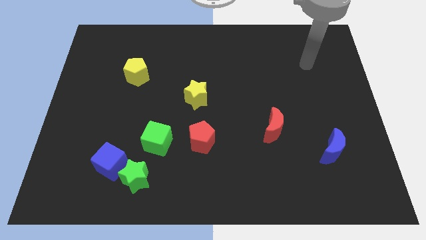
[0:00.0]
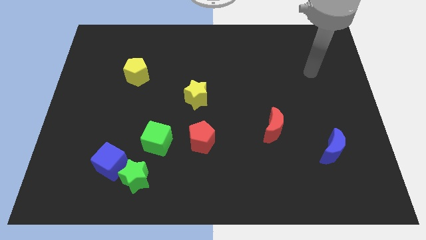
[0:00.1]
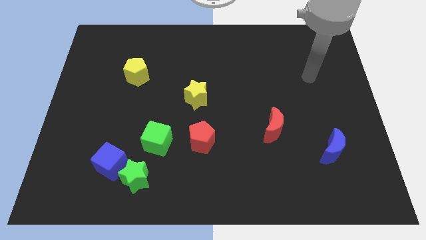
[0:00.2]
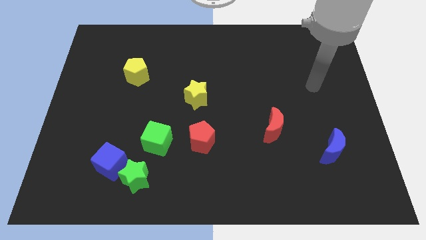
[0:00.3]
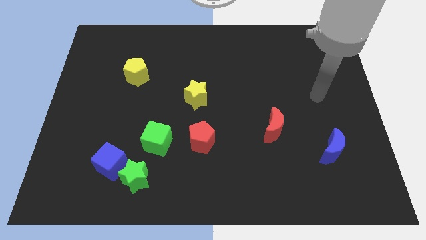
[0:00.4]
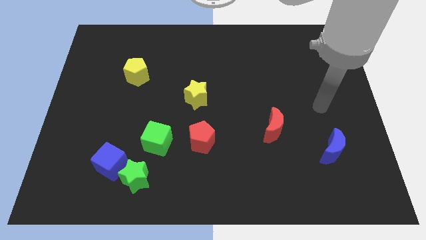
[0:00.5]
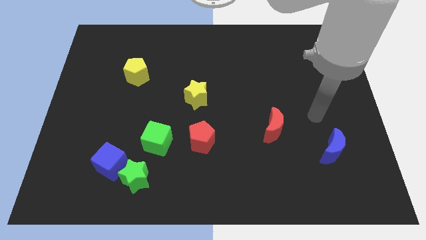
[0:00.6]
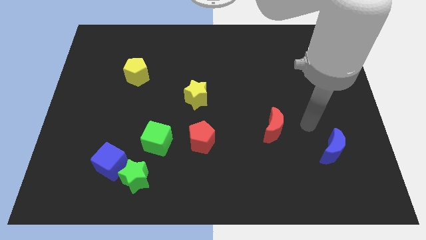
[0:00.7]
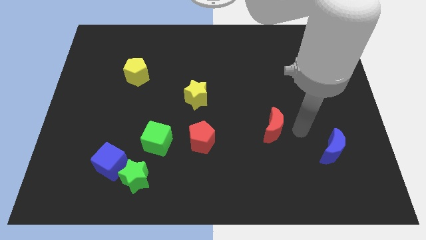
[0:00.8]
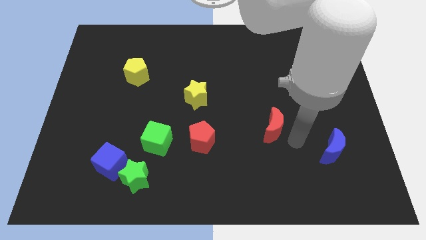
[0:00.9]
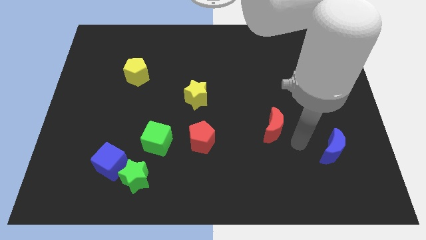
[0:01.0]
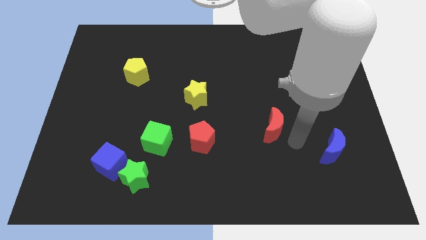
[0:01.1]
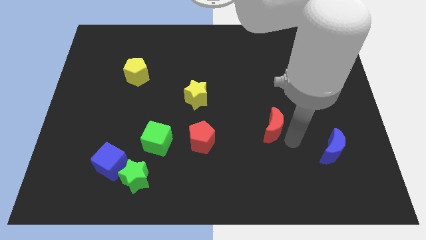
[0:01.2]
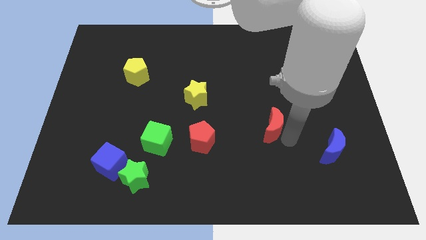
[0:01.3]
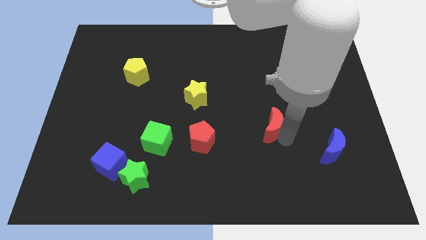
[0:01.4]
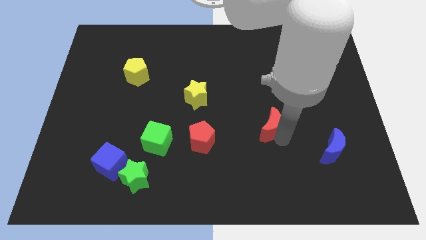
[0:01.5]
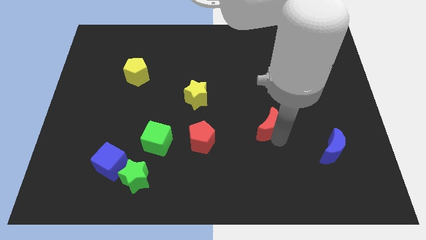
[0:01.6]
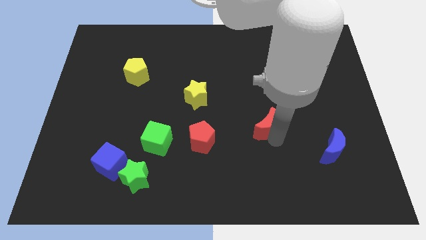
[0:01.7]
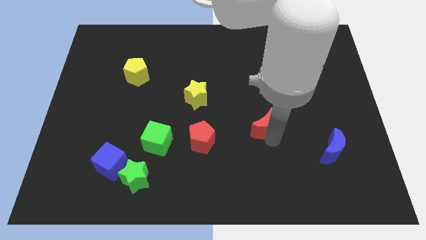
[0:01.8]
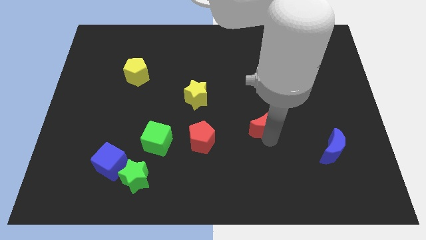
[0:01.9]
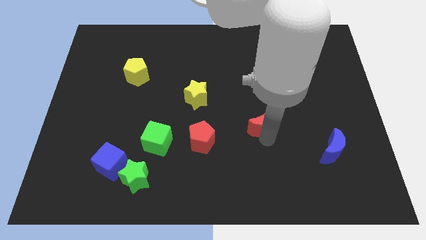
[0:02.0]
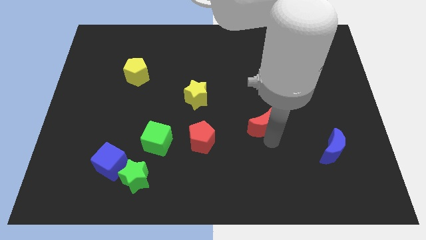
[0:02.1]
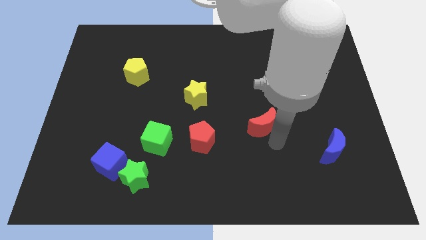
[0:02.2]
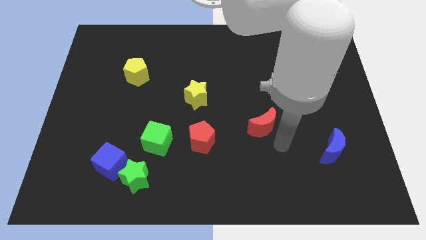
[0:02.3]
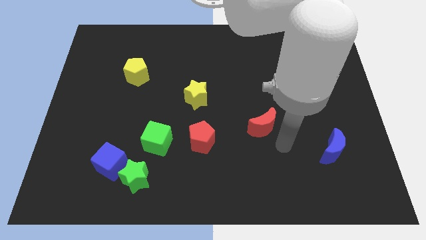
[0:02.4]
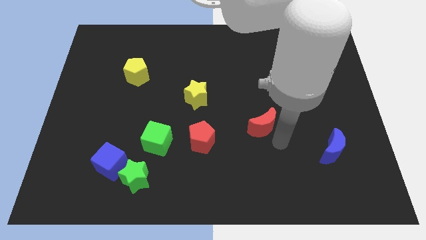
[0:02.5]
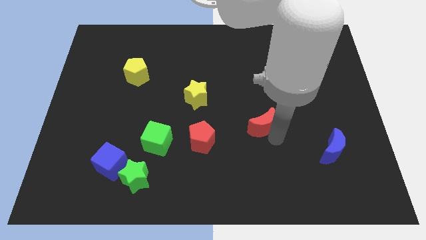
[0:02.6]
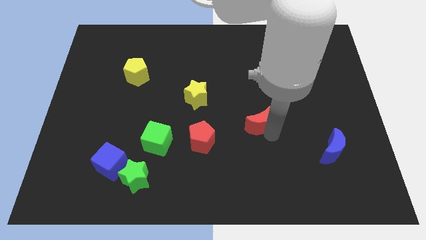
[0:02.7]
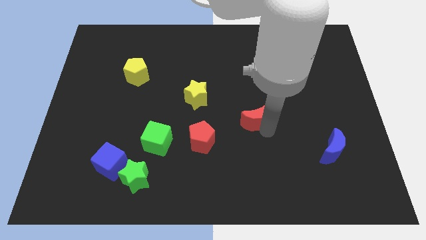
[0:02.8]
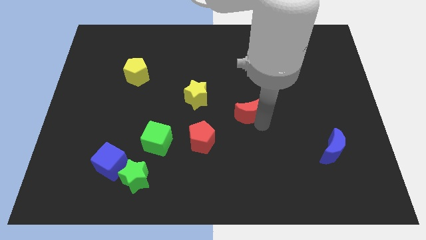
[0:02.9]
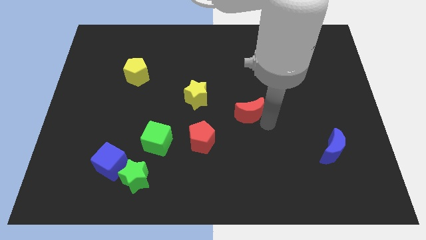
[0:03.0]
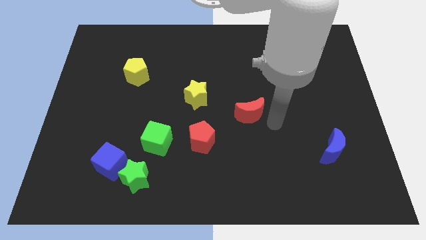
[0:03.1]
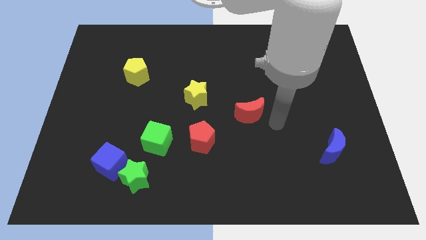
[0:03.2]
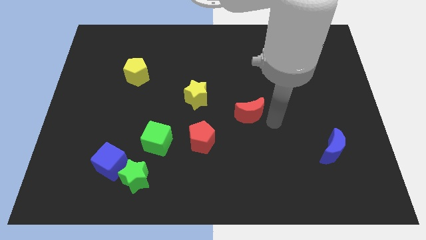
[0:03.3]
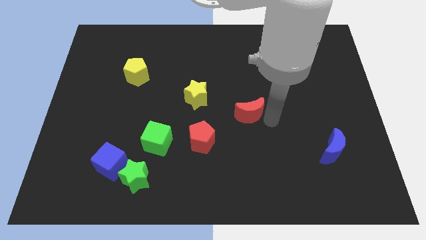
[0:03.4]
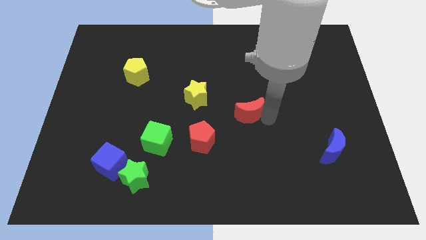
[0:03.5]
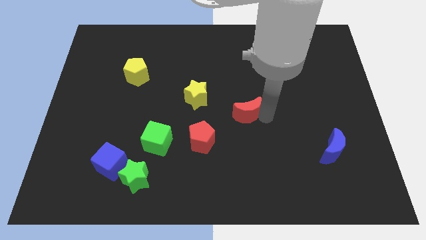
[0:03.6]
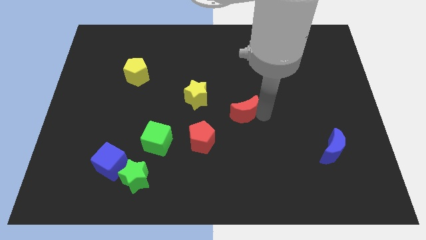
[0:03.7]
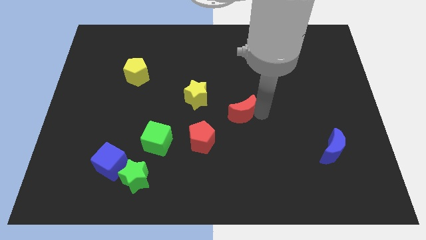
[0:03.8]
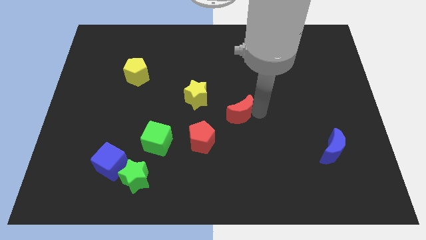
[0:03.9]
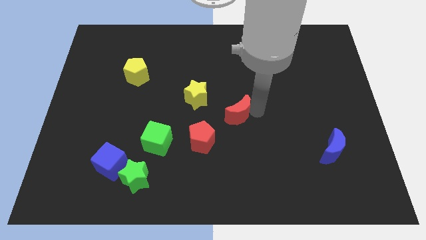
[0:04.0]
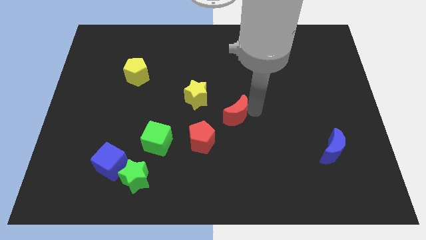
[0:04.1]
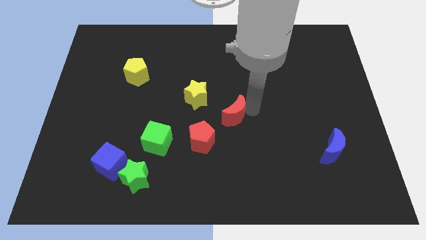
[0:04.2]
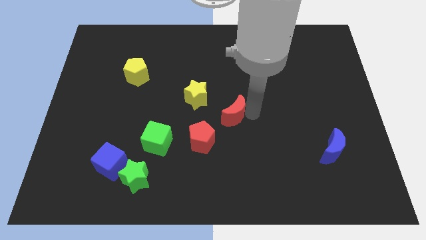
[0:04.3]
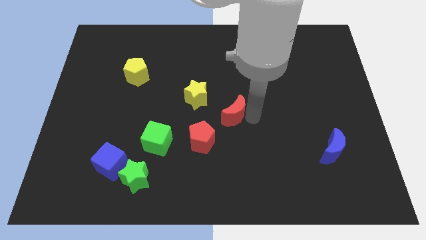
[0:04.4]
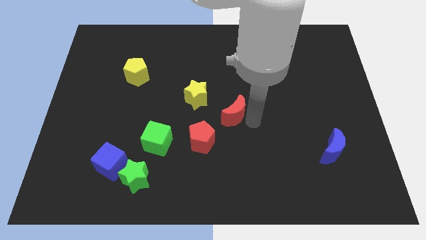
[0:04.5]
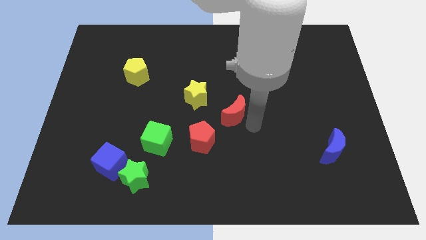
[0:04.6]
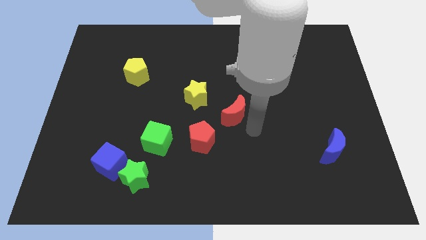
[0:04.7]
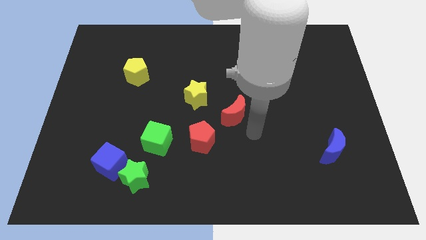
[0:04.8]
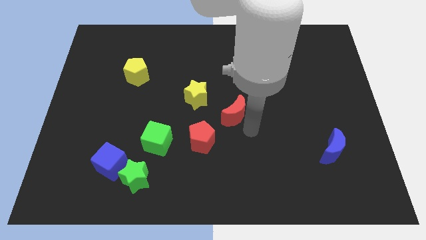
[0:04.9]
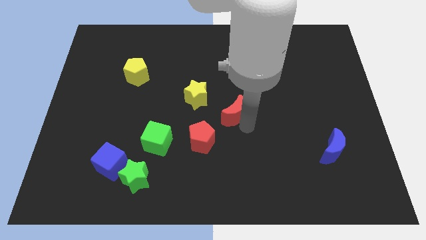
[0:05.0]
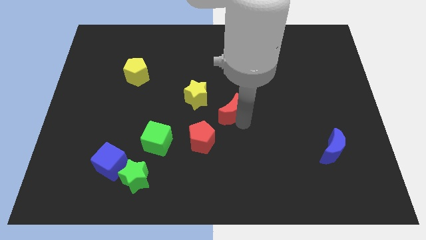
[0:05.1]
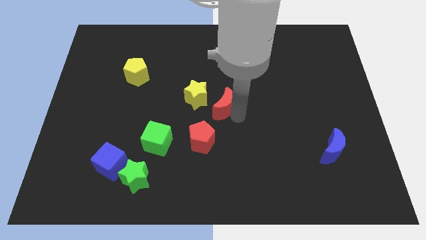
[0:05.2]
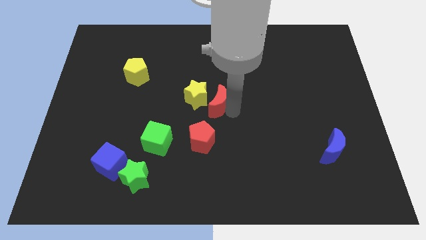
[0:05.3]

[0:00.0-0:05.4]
put the red moon to the yellow star

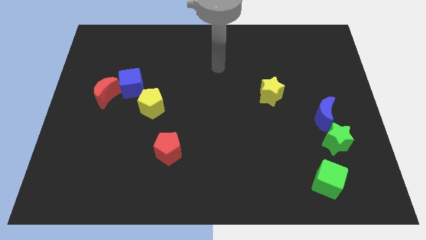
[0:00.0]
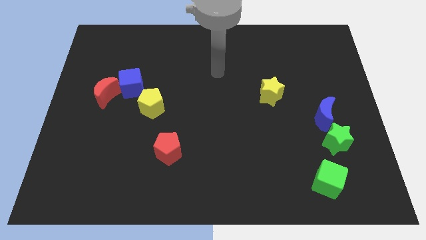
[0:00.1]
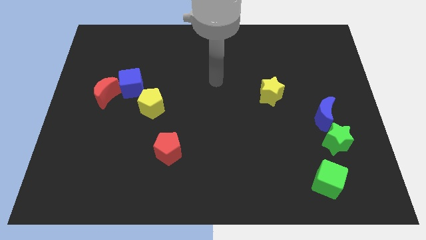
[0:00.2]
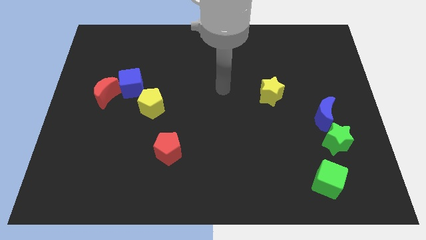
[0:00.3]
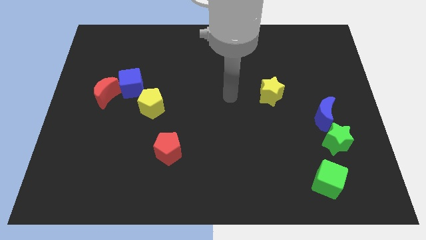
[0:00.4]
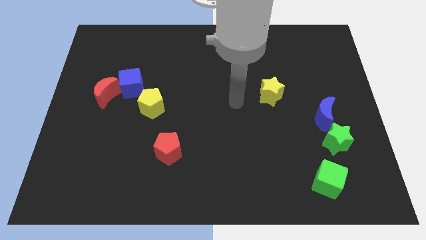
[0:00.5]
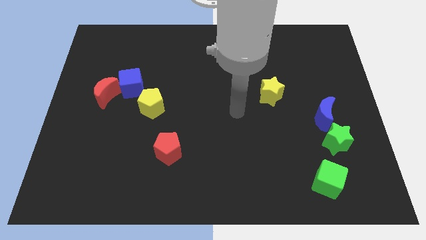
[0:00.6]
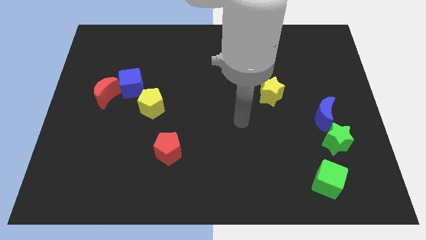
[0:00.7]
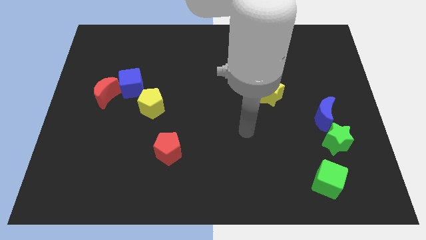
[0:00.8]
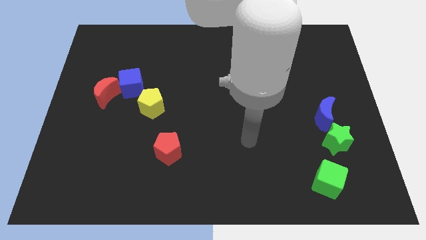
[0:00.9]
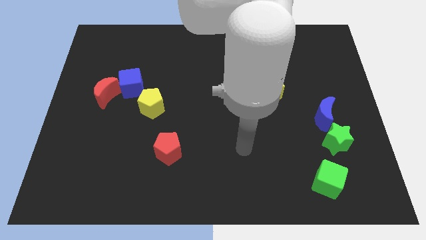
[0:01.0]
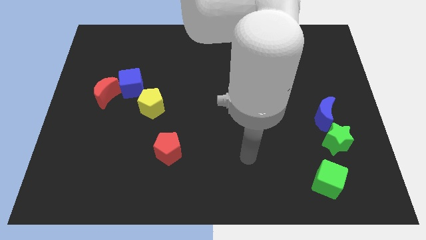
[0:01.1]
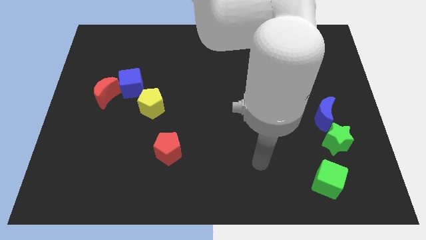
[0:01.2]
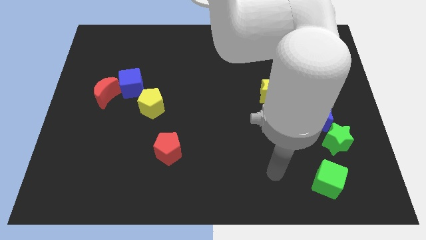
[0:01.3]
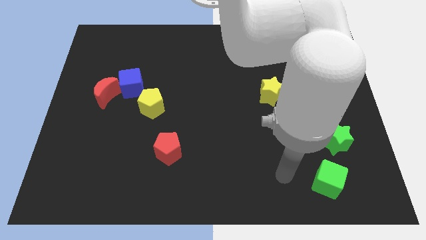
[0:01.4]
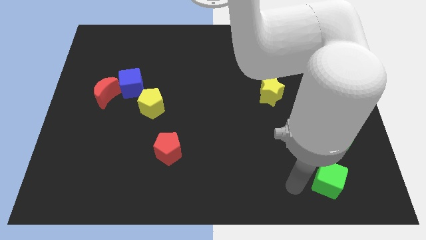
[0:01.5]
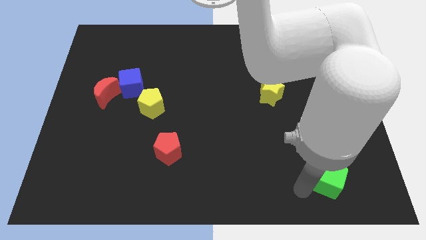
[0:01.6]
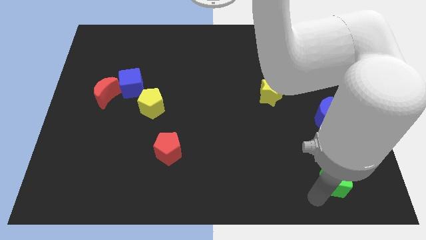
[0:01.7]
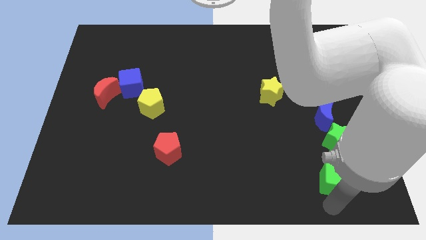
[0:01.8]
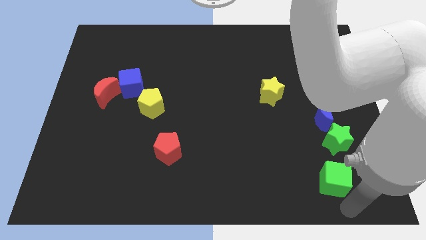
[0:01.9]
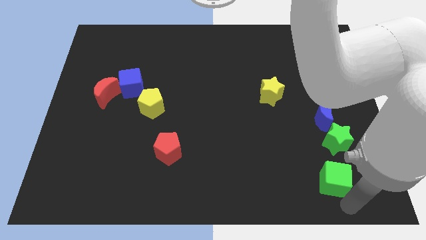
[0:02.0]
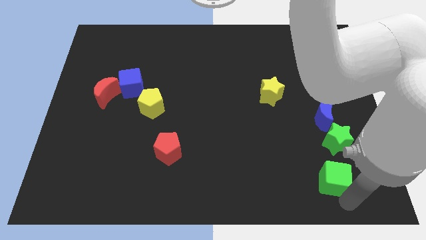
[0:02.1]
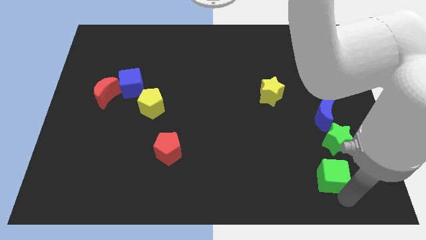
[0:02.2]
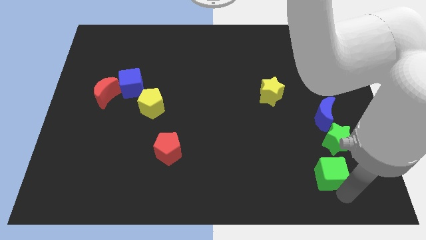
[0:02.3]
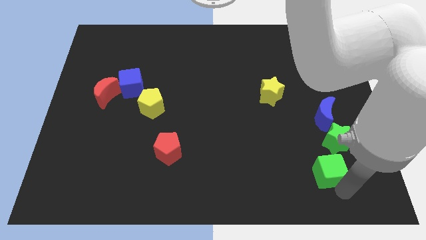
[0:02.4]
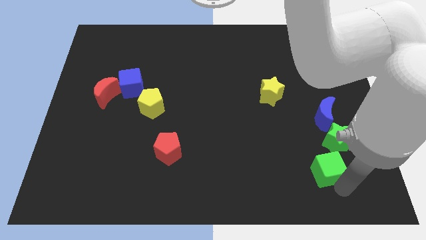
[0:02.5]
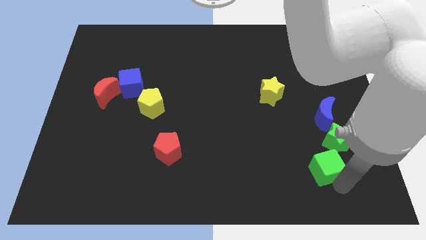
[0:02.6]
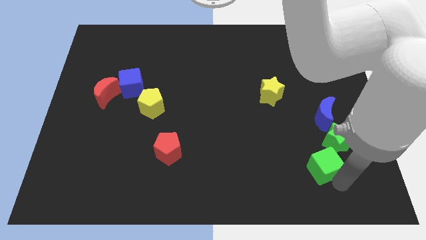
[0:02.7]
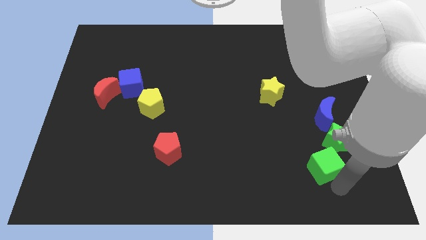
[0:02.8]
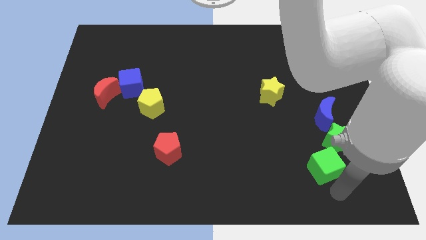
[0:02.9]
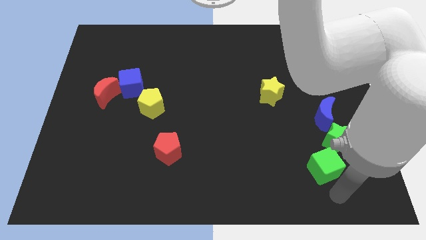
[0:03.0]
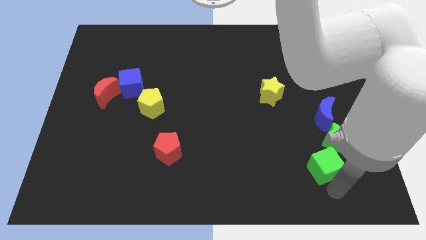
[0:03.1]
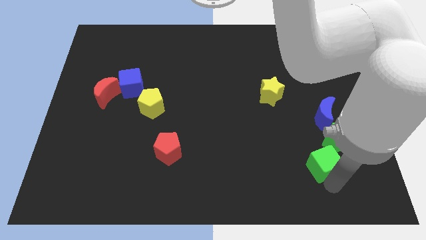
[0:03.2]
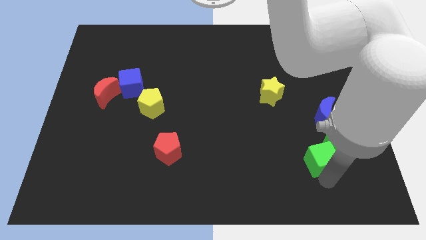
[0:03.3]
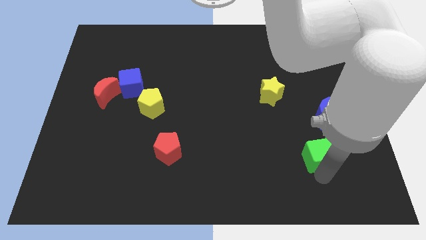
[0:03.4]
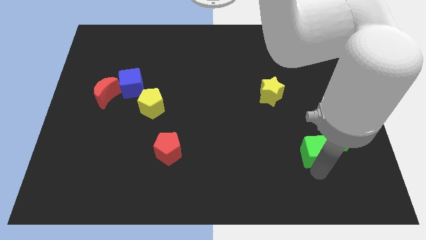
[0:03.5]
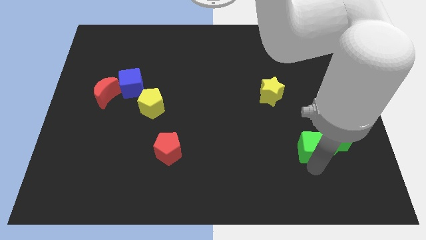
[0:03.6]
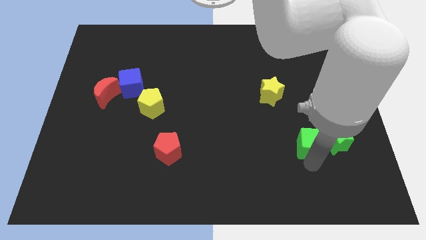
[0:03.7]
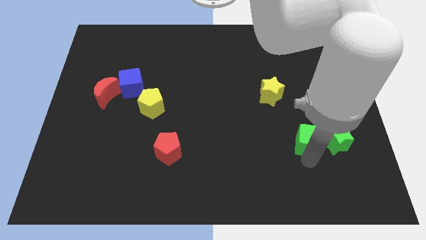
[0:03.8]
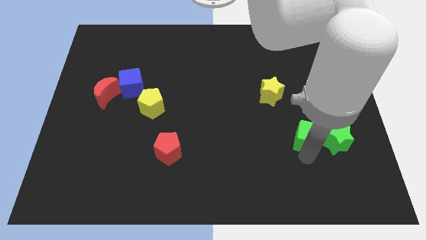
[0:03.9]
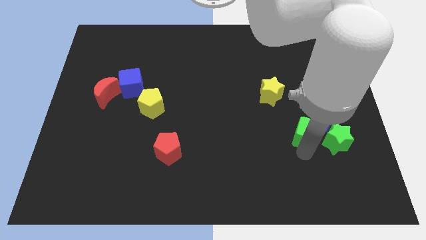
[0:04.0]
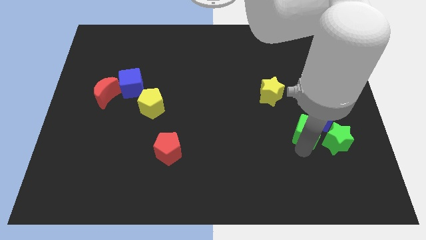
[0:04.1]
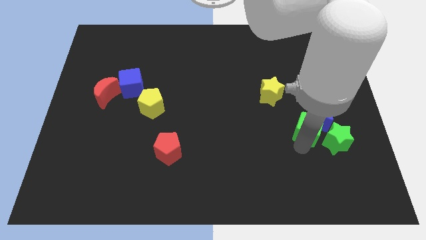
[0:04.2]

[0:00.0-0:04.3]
push the green cube towards the blue moon
